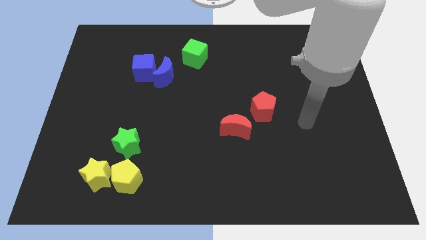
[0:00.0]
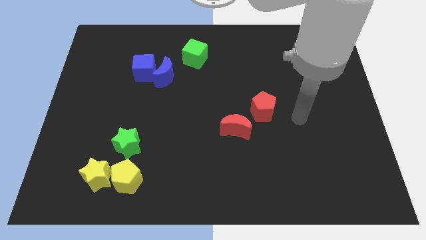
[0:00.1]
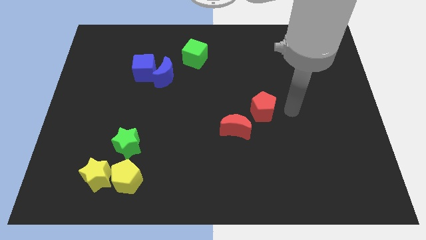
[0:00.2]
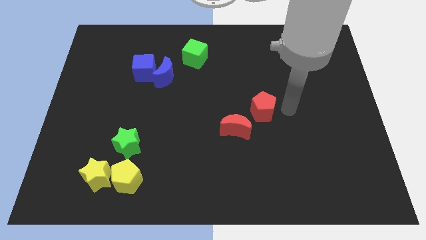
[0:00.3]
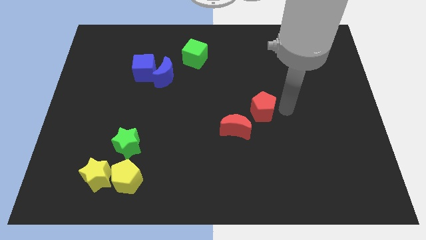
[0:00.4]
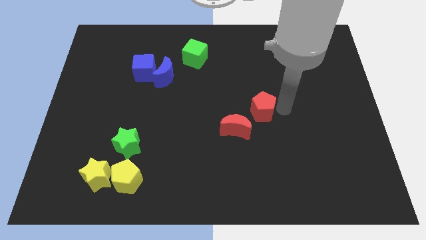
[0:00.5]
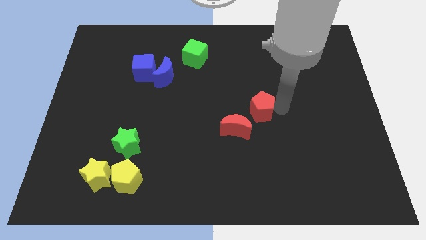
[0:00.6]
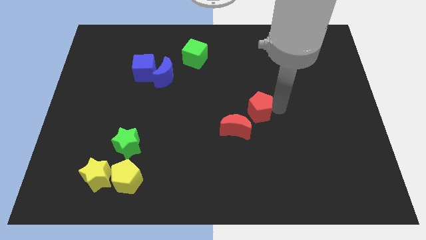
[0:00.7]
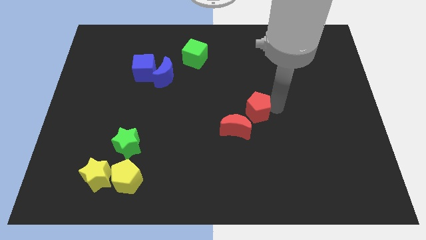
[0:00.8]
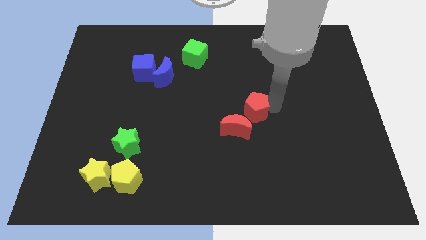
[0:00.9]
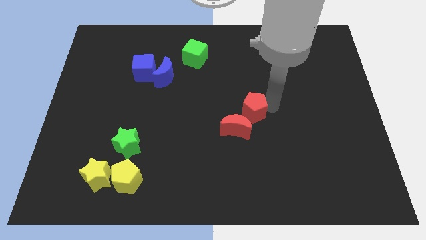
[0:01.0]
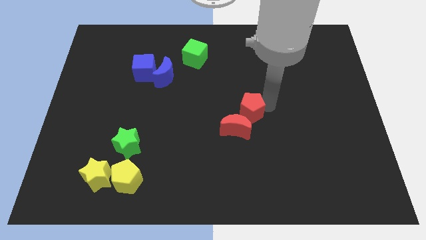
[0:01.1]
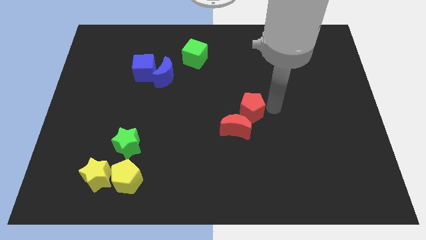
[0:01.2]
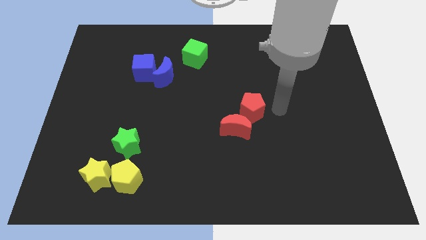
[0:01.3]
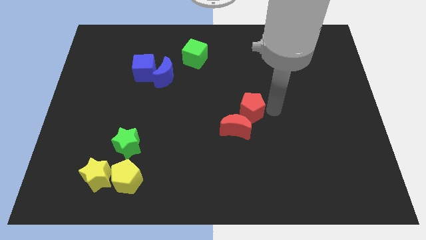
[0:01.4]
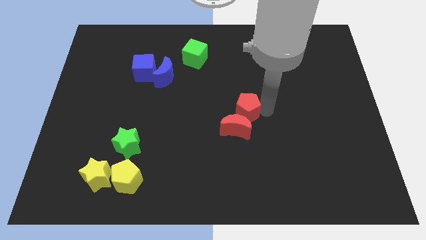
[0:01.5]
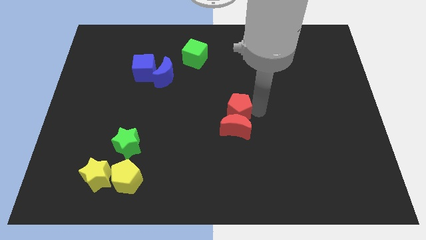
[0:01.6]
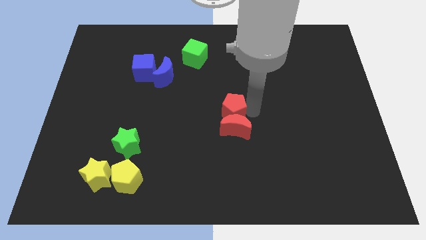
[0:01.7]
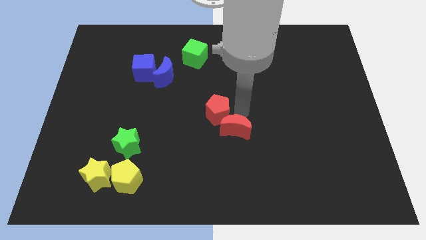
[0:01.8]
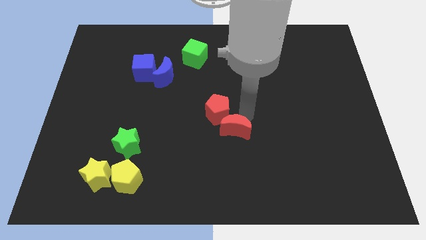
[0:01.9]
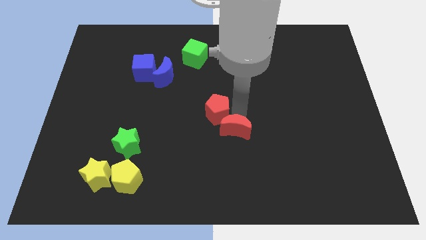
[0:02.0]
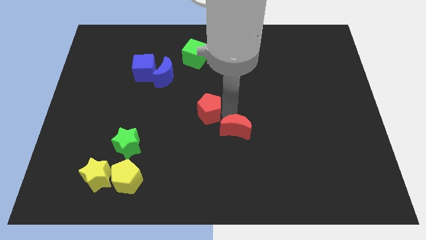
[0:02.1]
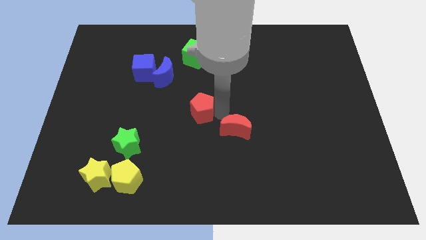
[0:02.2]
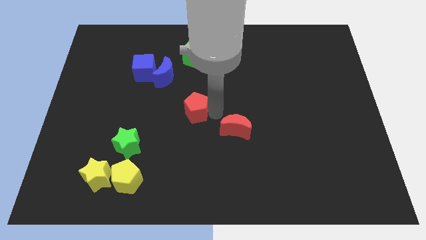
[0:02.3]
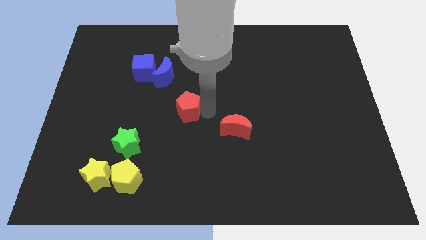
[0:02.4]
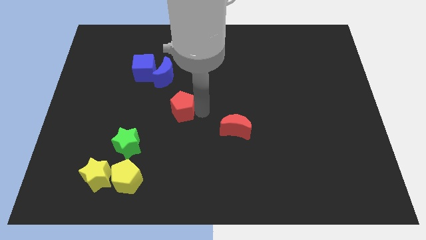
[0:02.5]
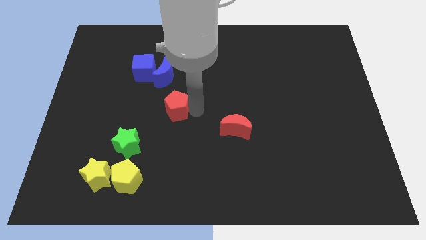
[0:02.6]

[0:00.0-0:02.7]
move the red pentagon to the left

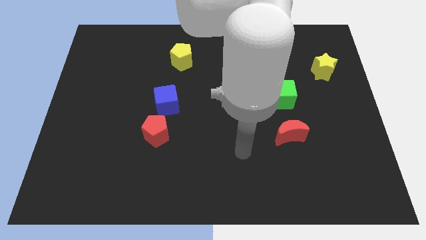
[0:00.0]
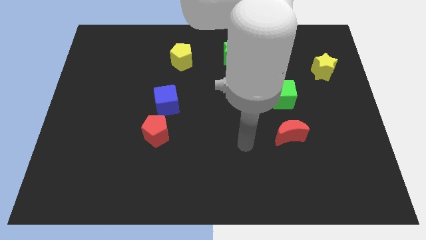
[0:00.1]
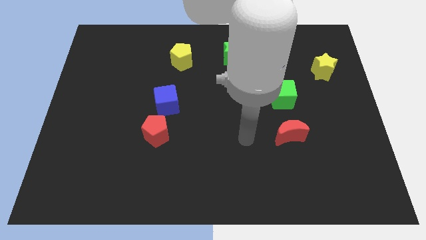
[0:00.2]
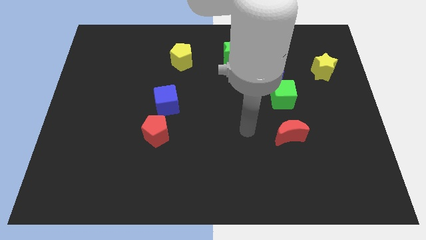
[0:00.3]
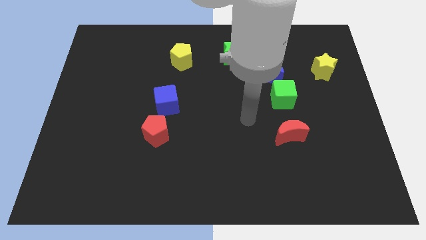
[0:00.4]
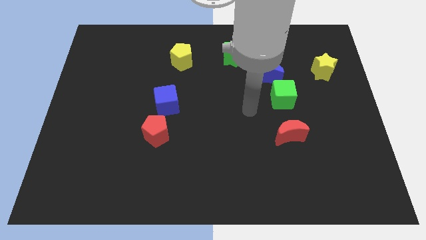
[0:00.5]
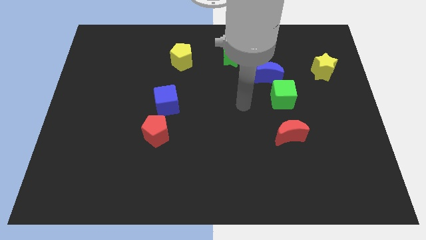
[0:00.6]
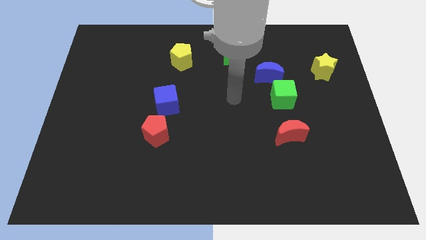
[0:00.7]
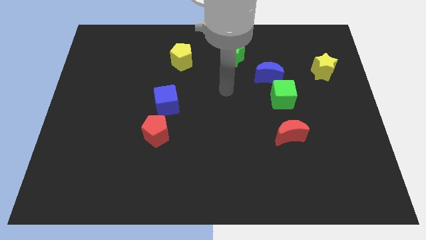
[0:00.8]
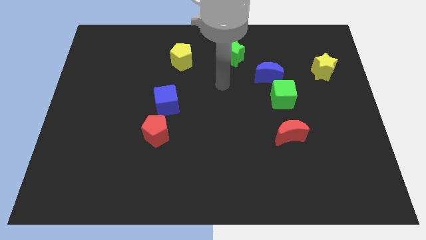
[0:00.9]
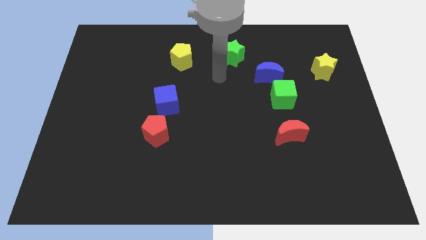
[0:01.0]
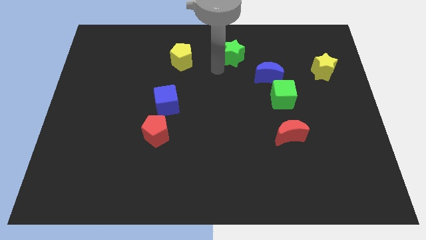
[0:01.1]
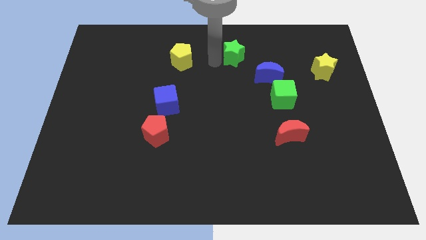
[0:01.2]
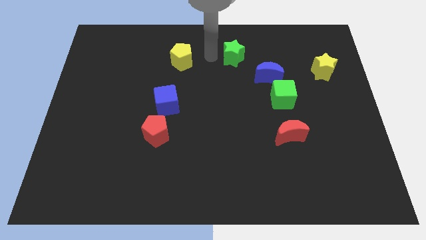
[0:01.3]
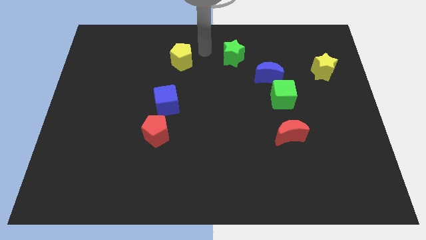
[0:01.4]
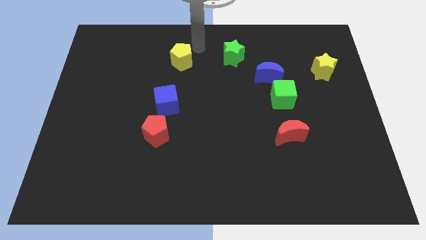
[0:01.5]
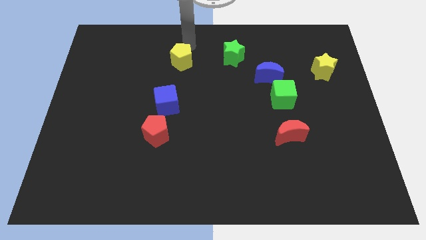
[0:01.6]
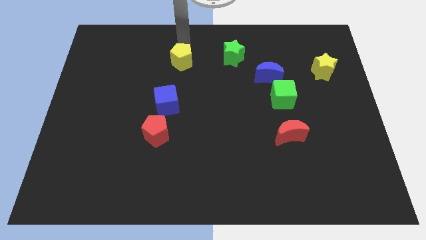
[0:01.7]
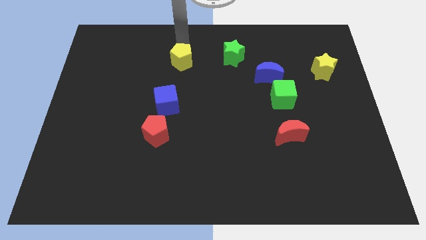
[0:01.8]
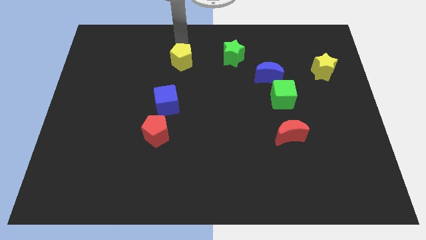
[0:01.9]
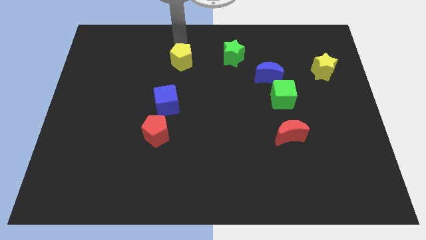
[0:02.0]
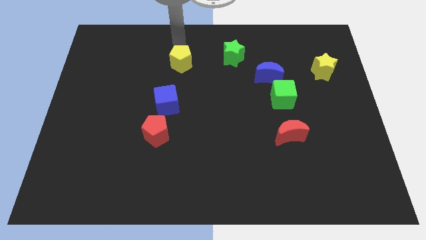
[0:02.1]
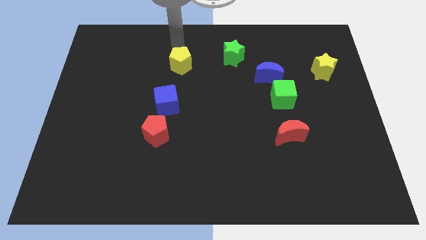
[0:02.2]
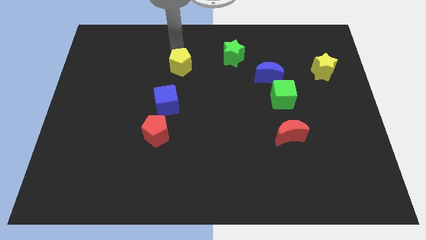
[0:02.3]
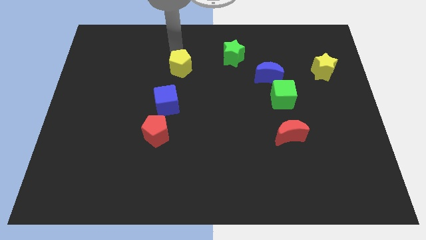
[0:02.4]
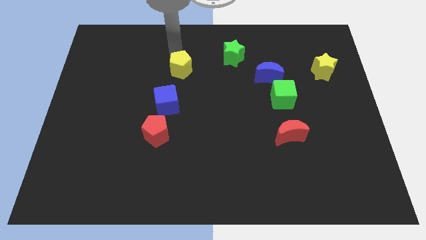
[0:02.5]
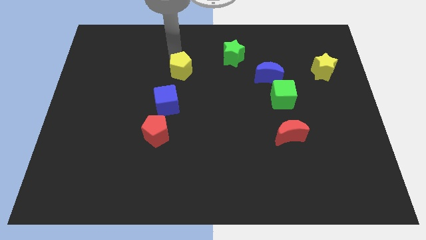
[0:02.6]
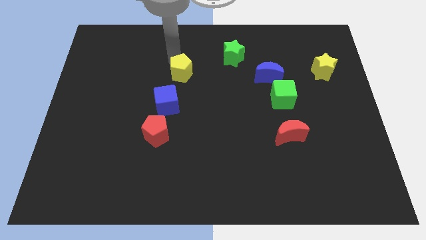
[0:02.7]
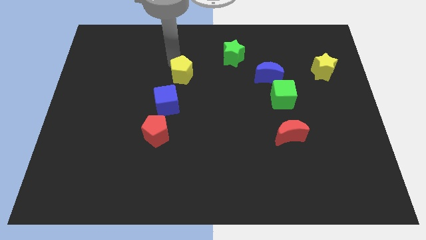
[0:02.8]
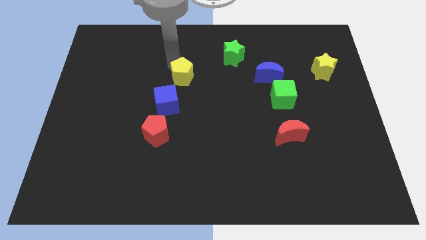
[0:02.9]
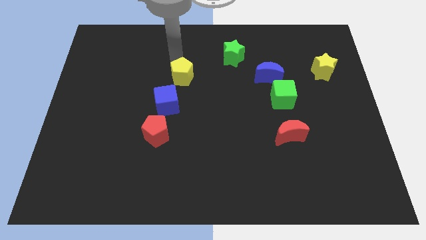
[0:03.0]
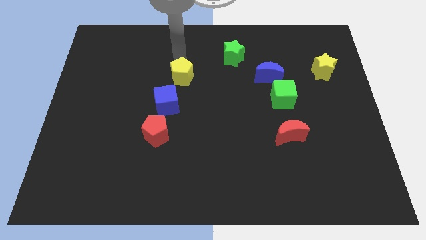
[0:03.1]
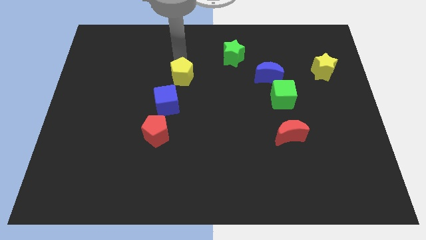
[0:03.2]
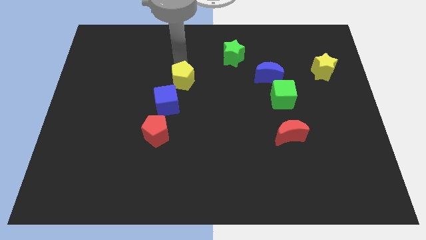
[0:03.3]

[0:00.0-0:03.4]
push the yellow pentagon a little down

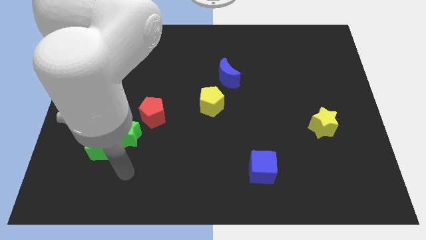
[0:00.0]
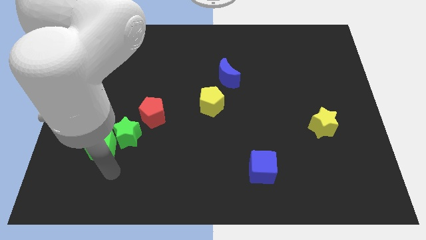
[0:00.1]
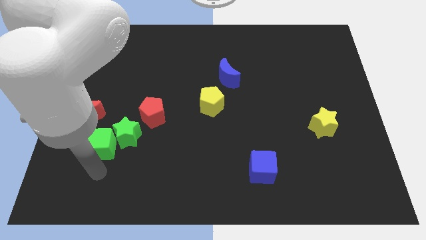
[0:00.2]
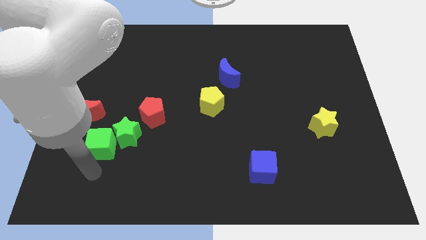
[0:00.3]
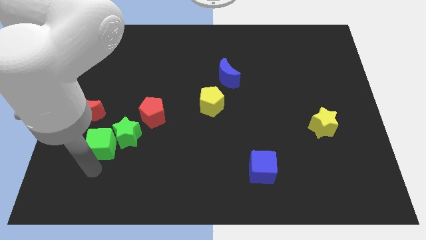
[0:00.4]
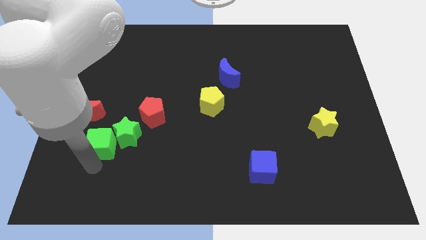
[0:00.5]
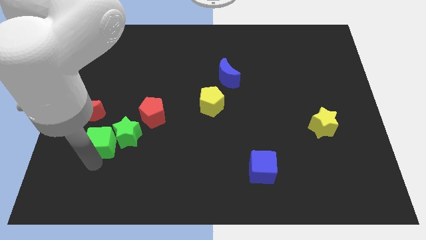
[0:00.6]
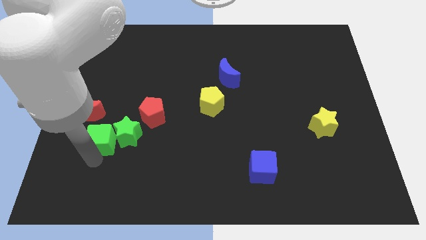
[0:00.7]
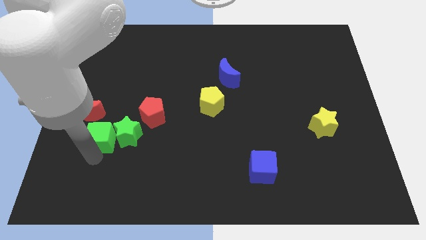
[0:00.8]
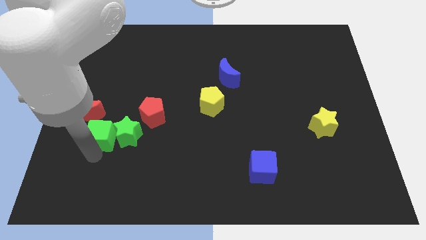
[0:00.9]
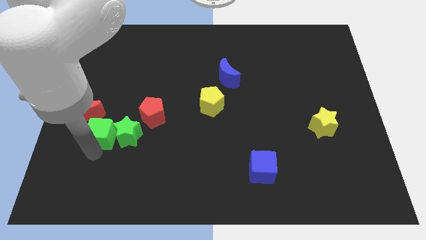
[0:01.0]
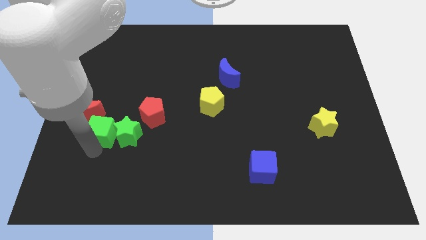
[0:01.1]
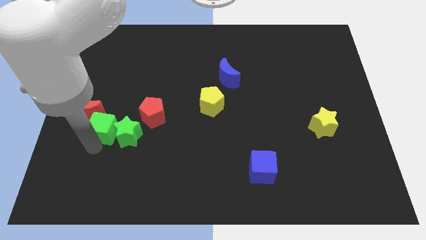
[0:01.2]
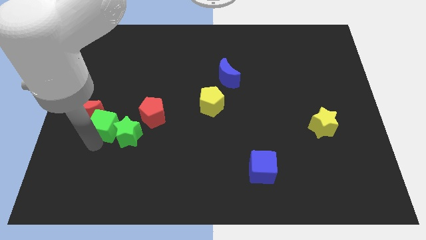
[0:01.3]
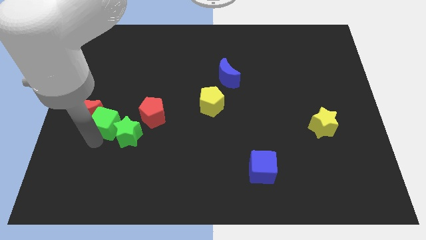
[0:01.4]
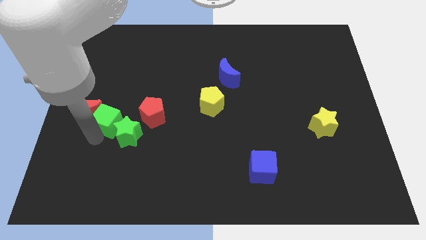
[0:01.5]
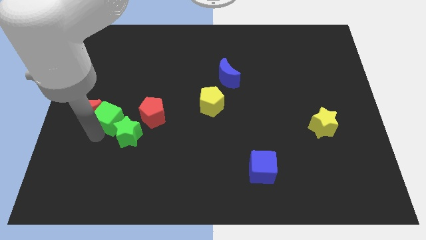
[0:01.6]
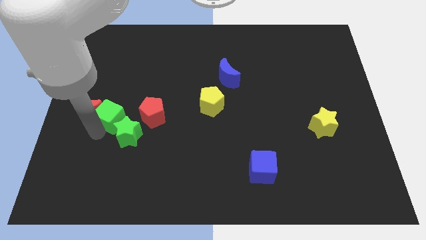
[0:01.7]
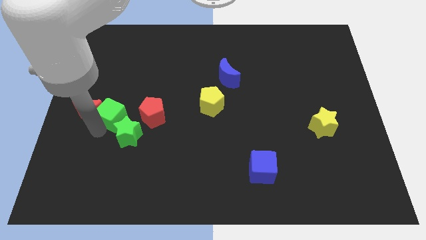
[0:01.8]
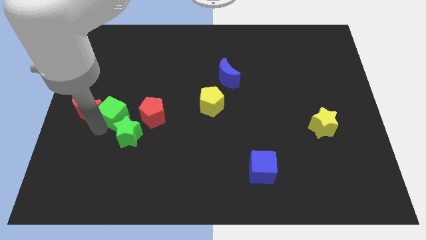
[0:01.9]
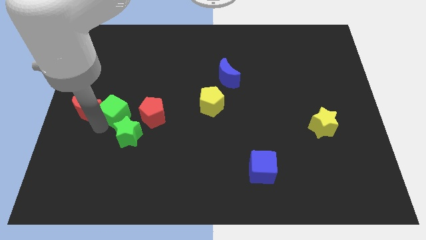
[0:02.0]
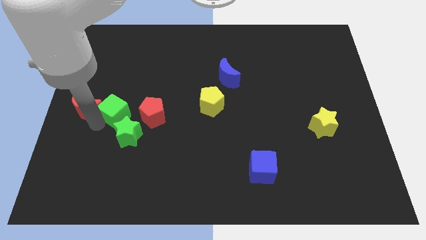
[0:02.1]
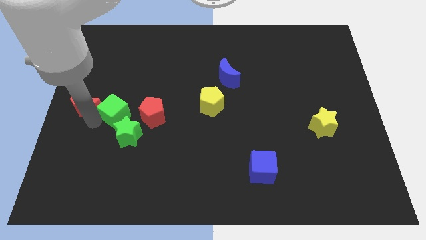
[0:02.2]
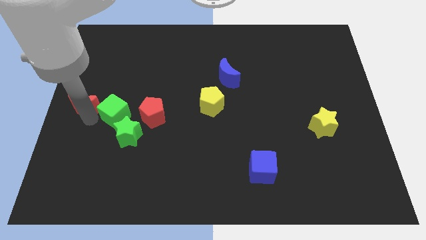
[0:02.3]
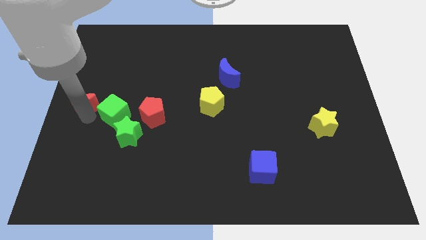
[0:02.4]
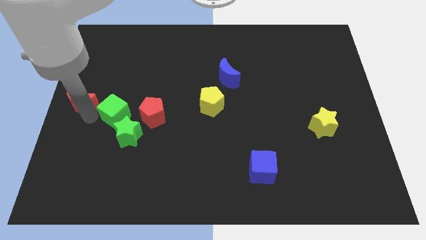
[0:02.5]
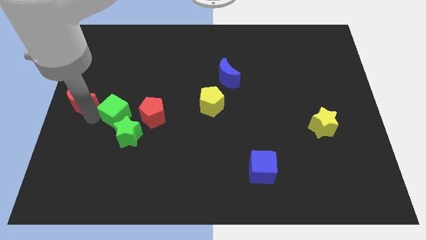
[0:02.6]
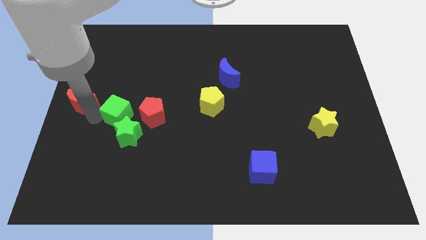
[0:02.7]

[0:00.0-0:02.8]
push the green cube up and to the right diagonally a little
